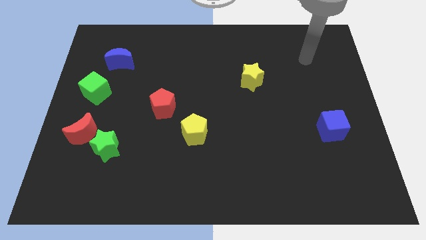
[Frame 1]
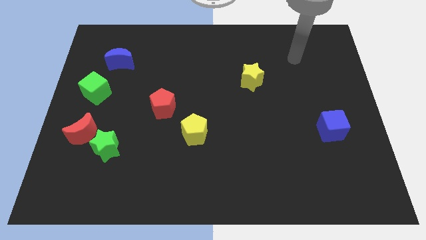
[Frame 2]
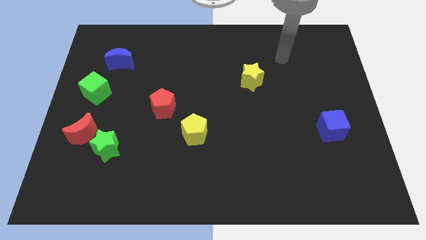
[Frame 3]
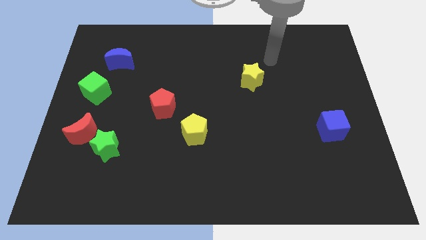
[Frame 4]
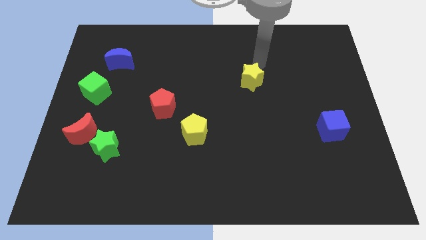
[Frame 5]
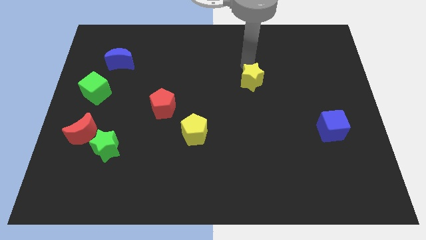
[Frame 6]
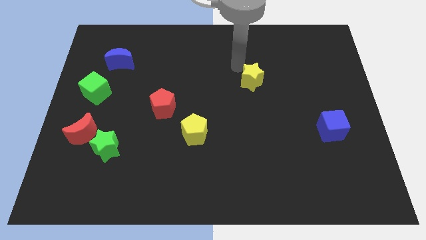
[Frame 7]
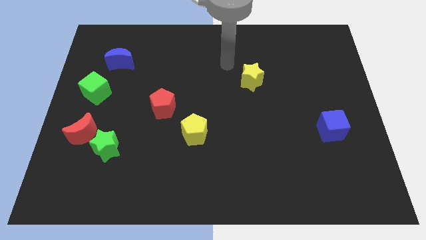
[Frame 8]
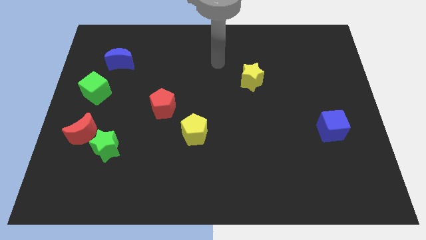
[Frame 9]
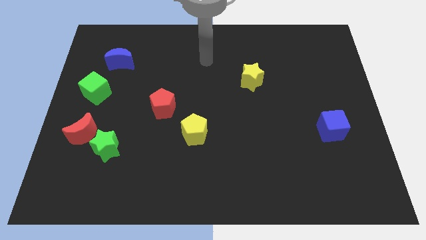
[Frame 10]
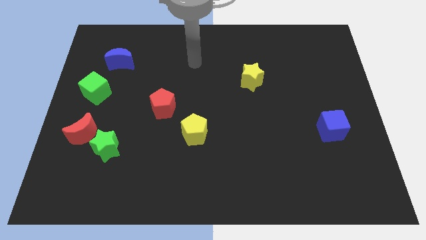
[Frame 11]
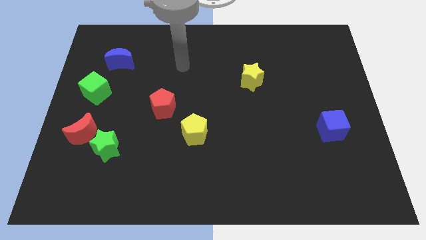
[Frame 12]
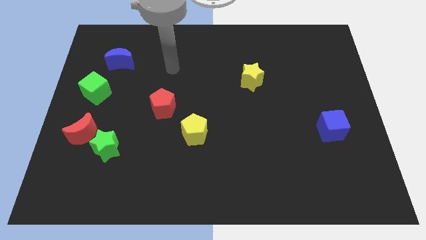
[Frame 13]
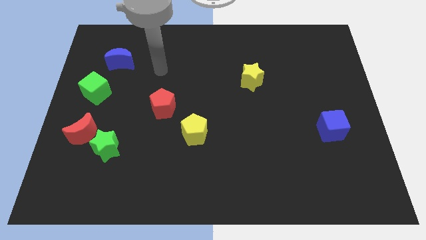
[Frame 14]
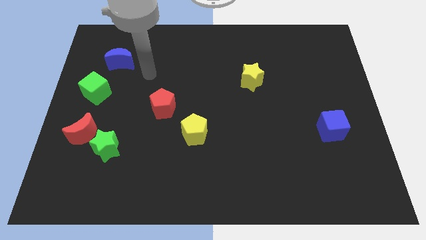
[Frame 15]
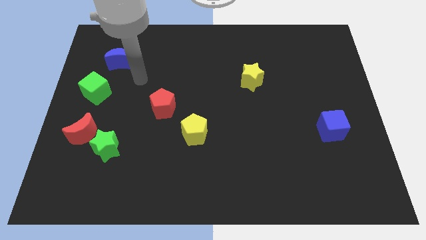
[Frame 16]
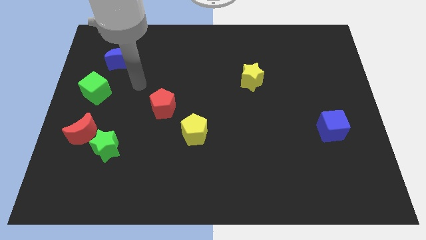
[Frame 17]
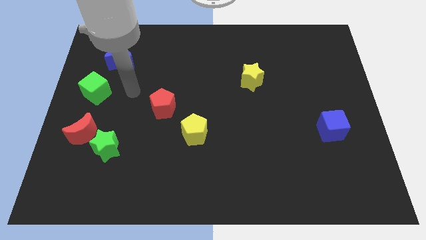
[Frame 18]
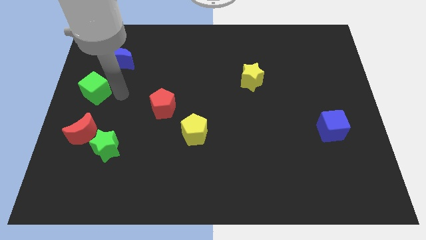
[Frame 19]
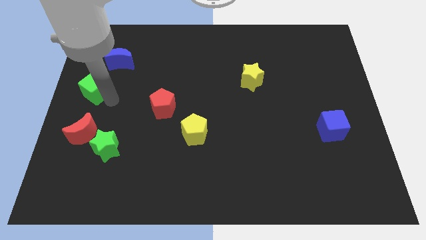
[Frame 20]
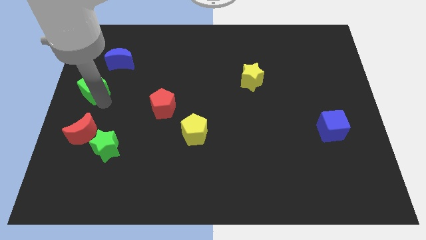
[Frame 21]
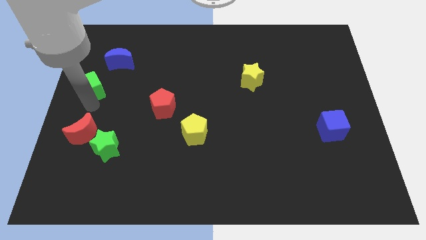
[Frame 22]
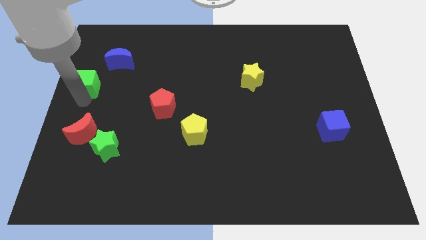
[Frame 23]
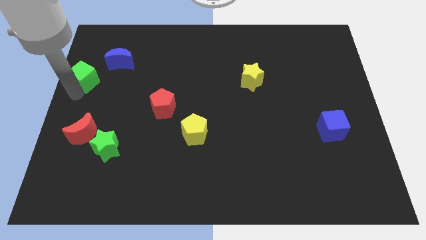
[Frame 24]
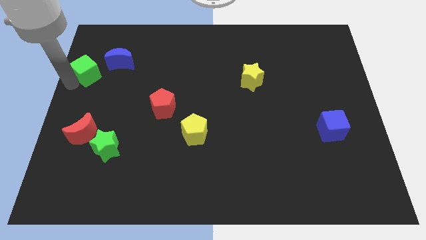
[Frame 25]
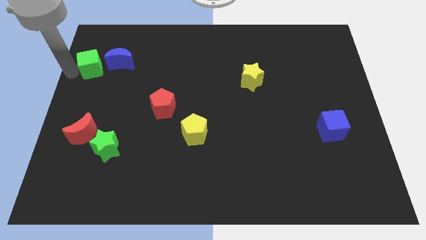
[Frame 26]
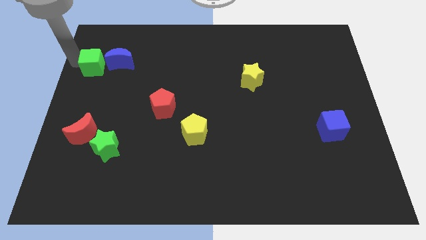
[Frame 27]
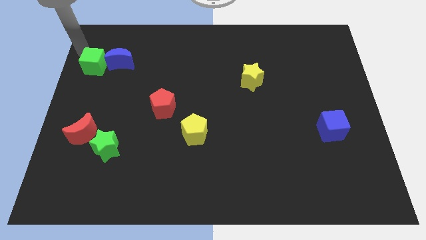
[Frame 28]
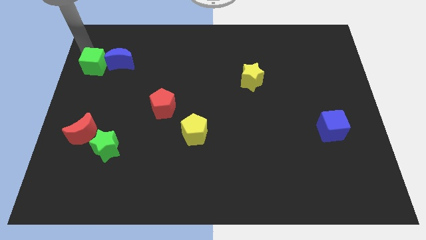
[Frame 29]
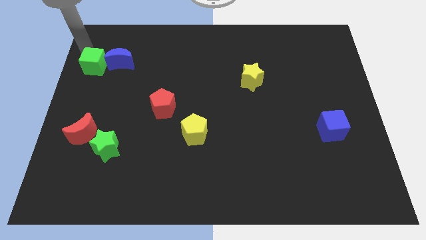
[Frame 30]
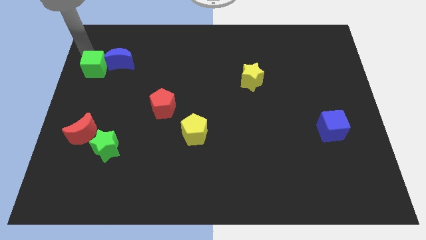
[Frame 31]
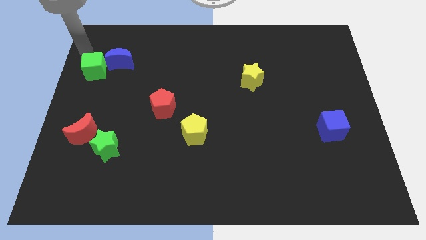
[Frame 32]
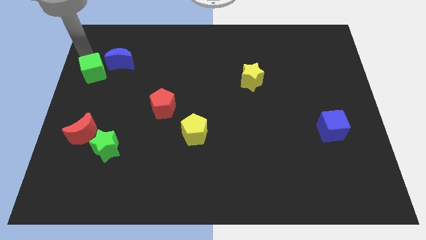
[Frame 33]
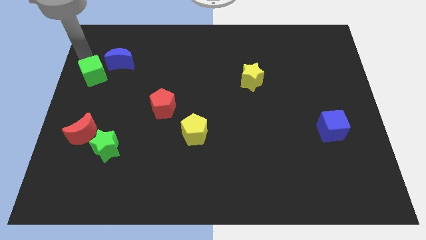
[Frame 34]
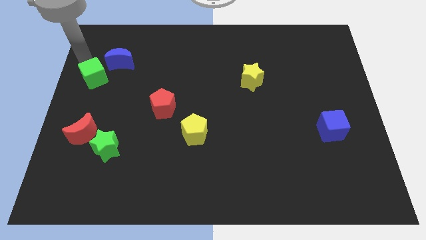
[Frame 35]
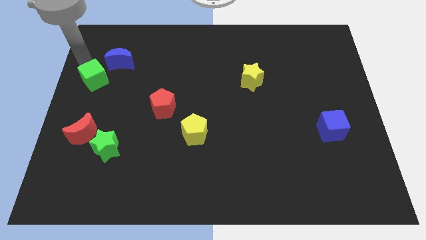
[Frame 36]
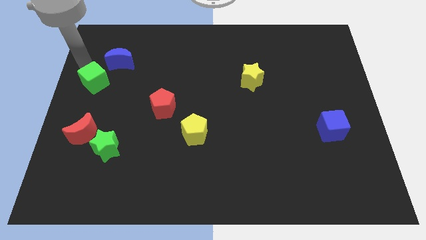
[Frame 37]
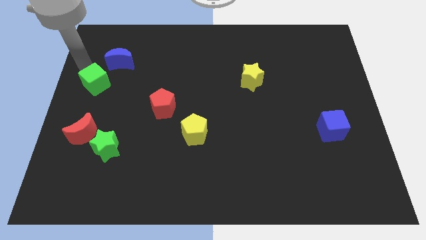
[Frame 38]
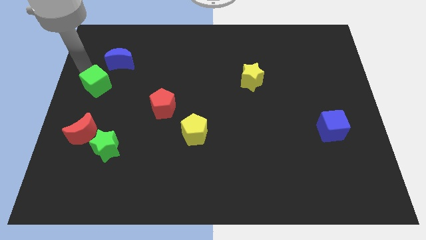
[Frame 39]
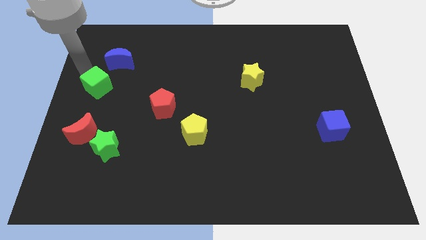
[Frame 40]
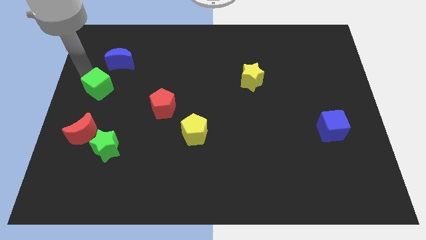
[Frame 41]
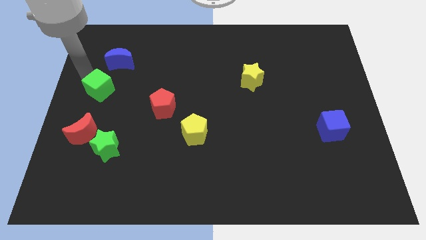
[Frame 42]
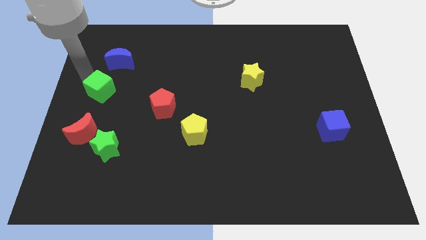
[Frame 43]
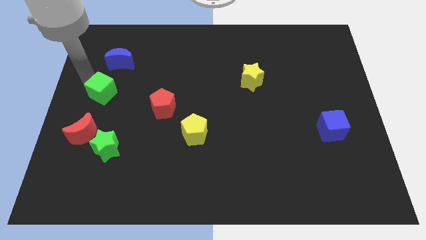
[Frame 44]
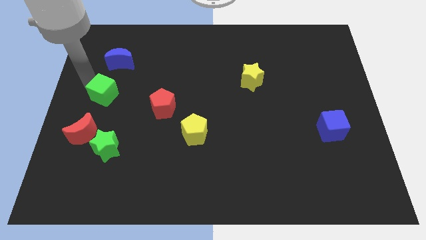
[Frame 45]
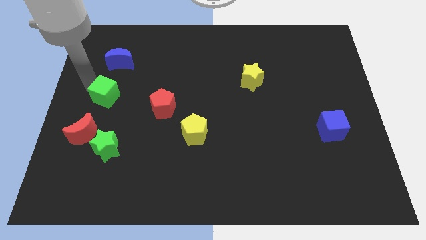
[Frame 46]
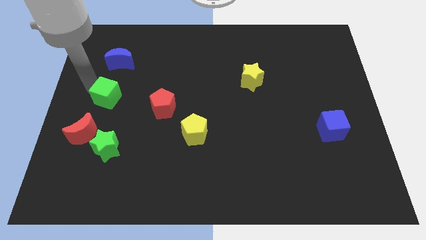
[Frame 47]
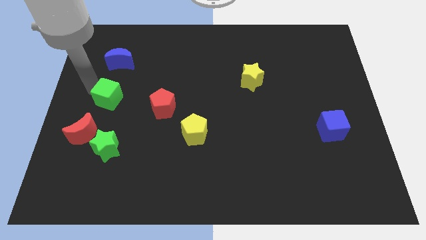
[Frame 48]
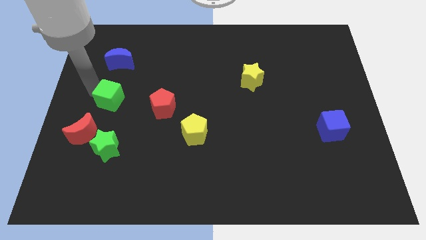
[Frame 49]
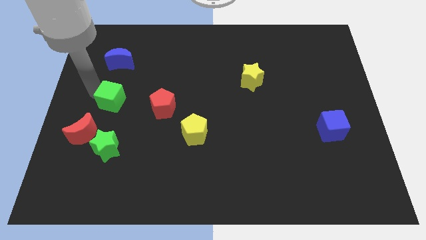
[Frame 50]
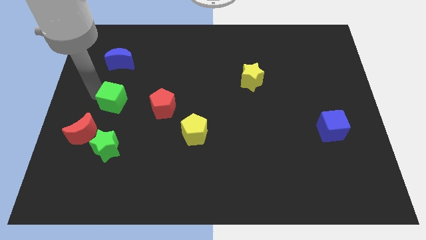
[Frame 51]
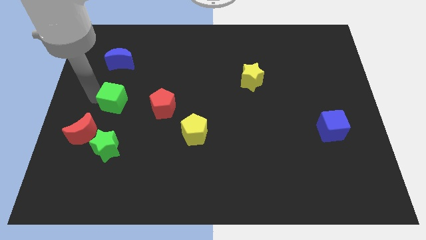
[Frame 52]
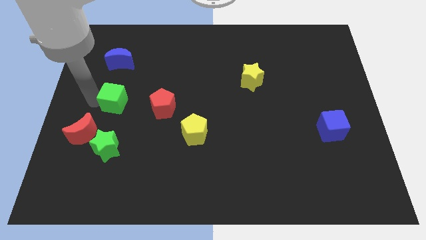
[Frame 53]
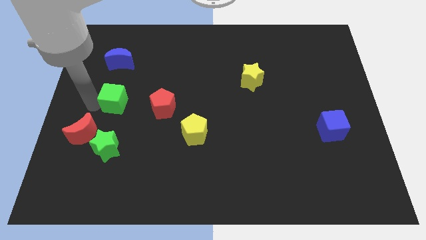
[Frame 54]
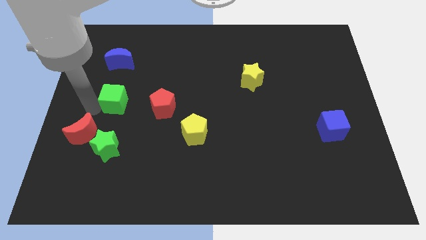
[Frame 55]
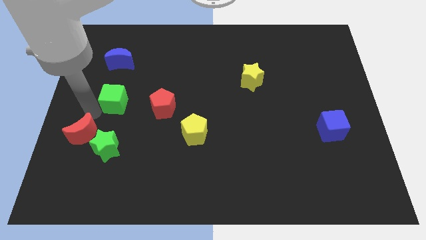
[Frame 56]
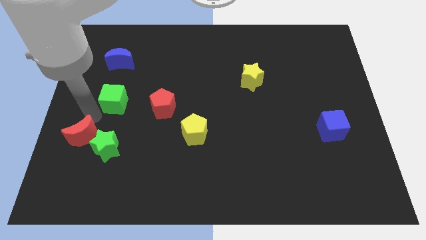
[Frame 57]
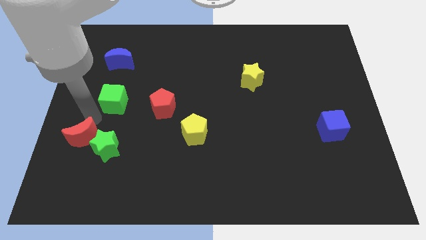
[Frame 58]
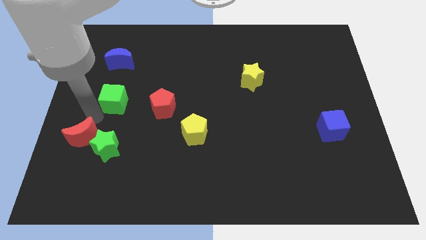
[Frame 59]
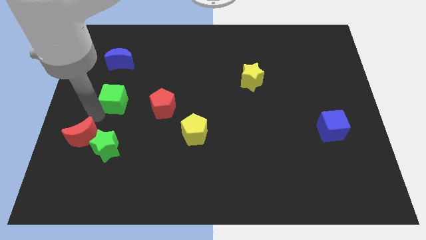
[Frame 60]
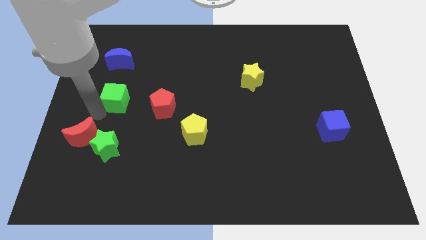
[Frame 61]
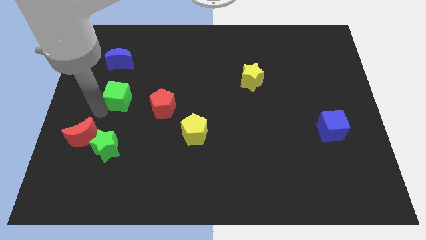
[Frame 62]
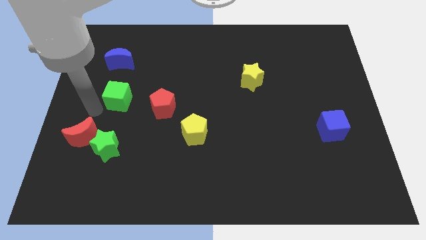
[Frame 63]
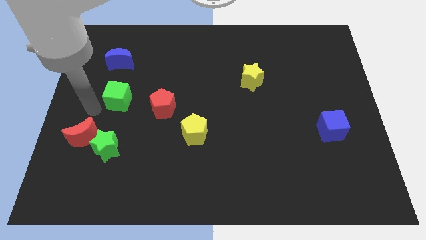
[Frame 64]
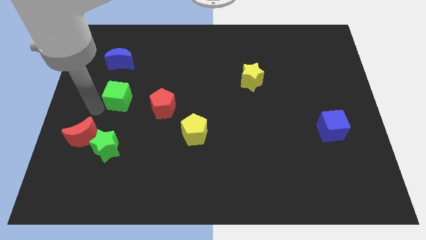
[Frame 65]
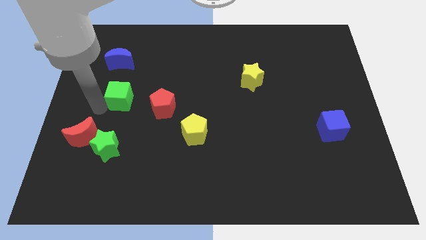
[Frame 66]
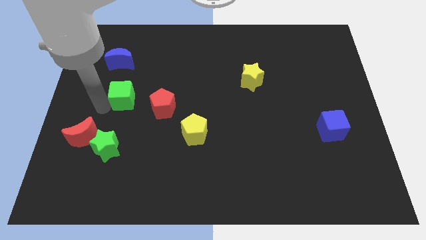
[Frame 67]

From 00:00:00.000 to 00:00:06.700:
push the green cube to the right a little

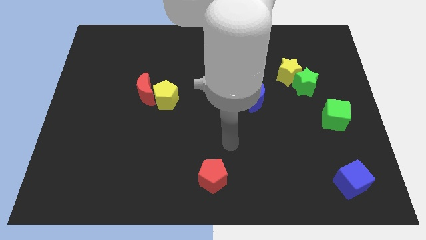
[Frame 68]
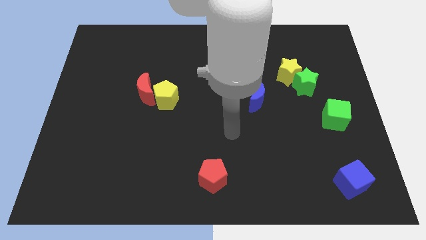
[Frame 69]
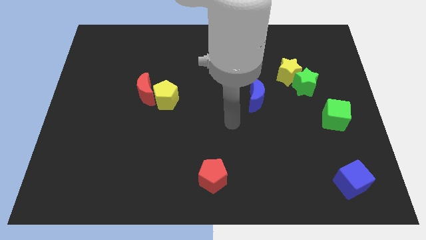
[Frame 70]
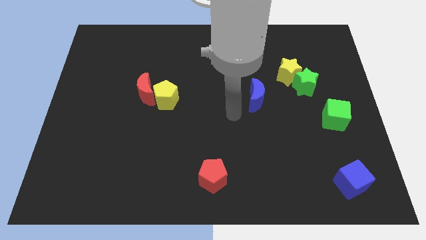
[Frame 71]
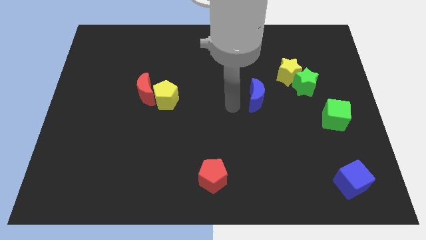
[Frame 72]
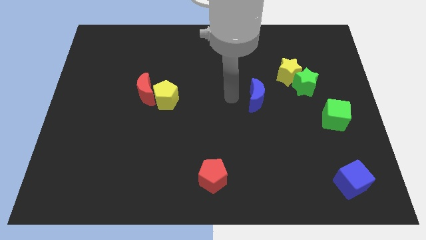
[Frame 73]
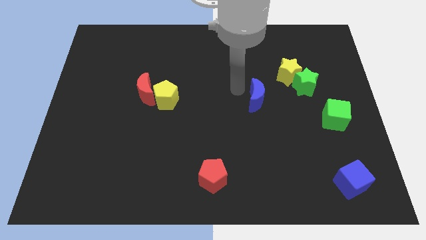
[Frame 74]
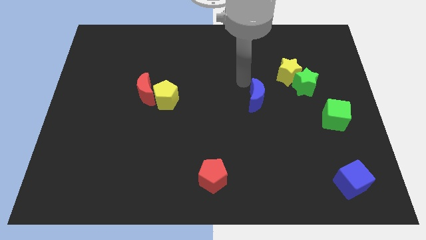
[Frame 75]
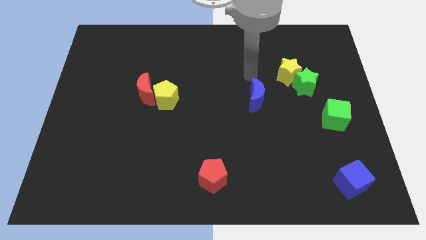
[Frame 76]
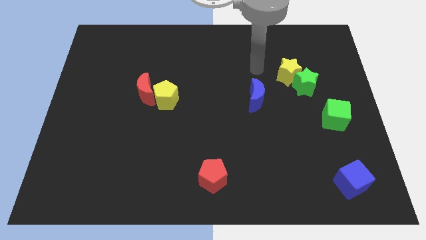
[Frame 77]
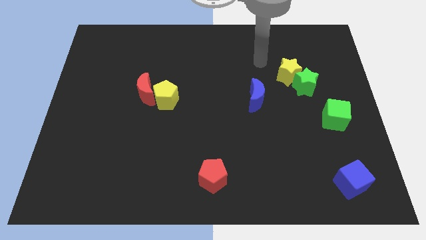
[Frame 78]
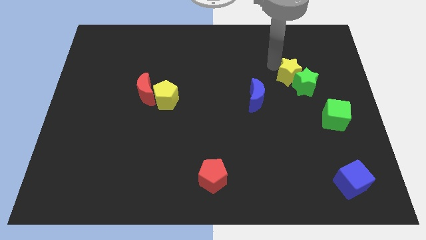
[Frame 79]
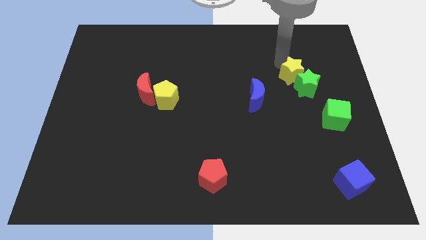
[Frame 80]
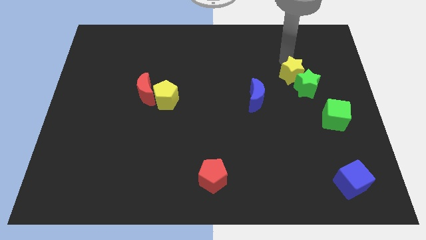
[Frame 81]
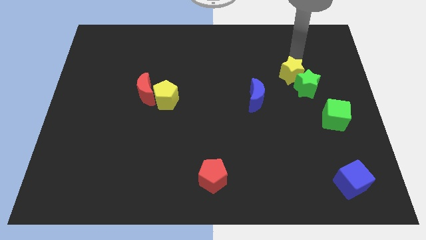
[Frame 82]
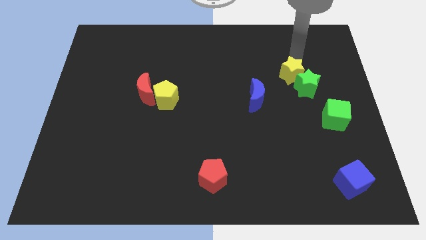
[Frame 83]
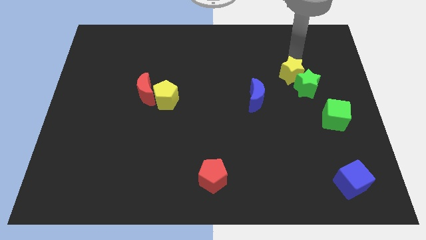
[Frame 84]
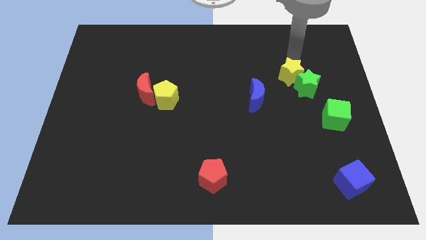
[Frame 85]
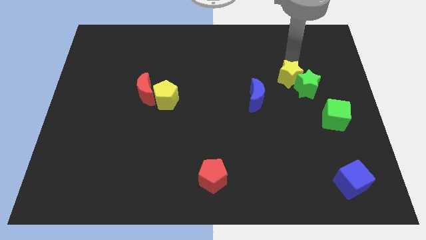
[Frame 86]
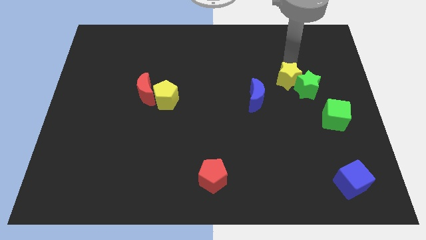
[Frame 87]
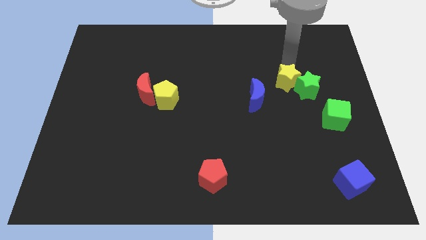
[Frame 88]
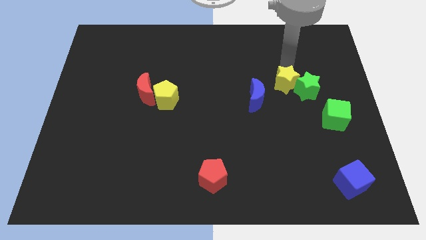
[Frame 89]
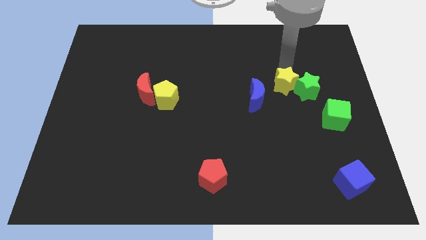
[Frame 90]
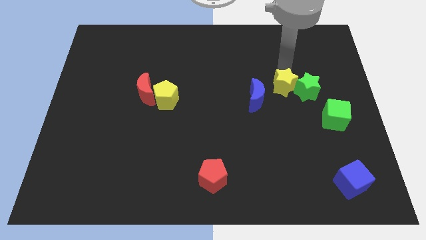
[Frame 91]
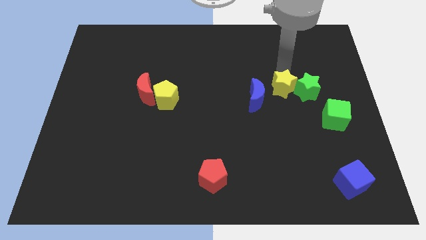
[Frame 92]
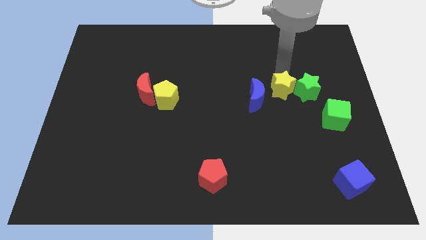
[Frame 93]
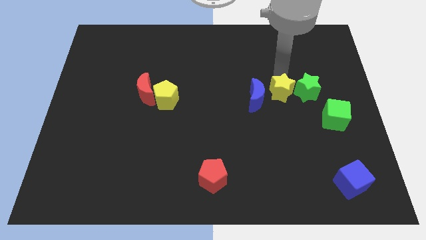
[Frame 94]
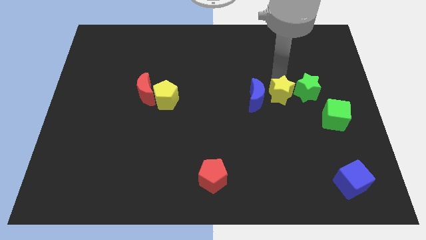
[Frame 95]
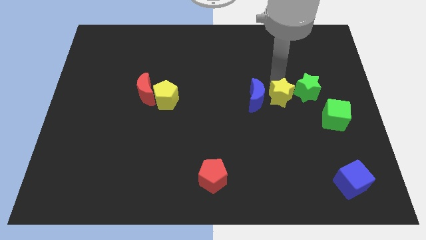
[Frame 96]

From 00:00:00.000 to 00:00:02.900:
move the yellow star down slightly
